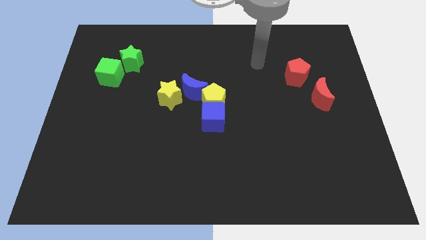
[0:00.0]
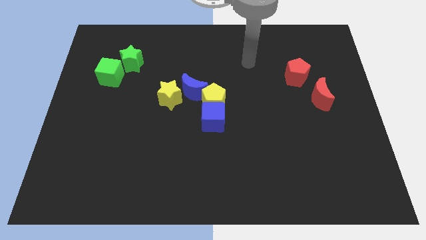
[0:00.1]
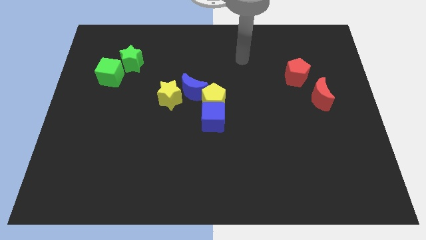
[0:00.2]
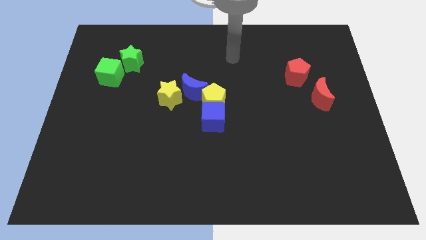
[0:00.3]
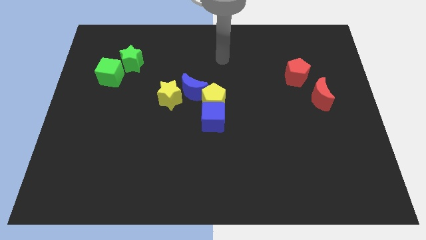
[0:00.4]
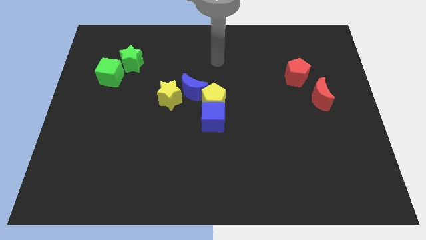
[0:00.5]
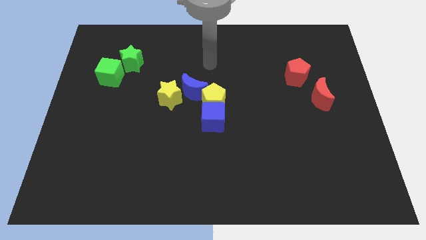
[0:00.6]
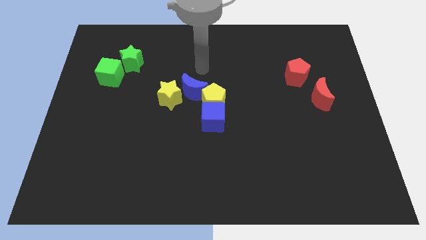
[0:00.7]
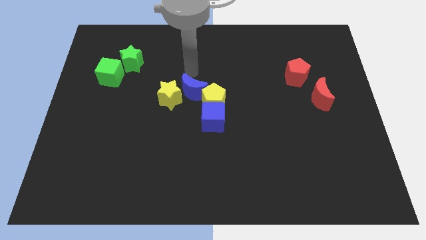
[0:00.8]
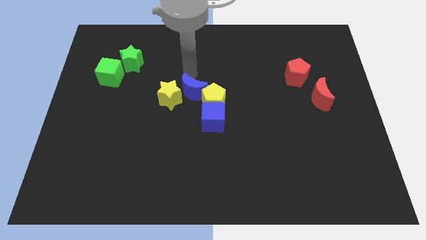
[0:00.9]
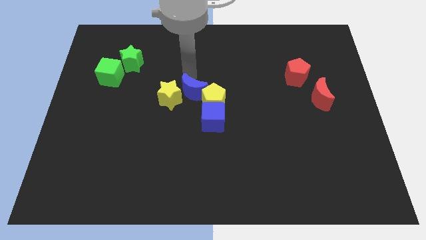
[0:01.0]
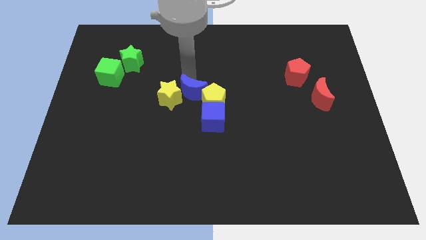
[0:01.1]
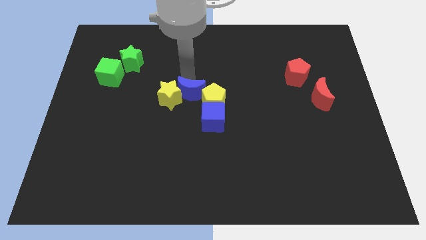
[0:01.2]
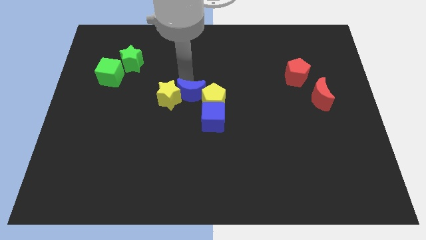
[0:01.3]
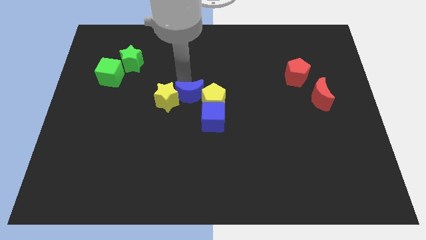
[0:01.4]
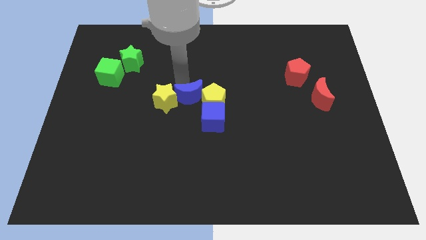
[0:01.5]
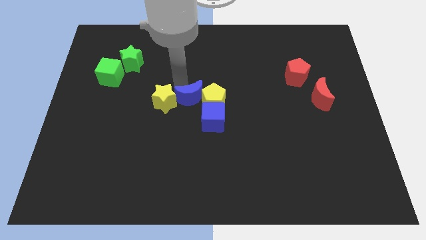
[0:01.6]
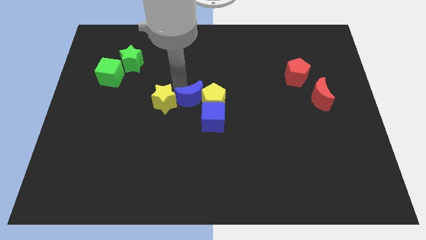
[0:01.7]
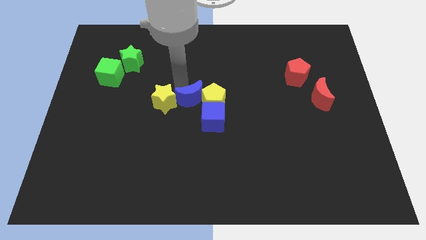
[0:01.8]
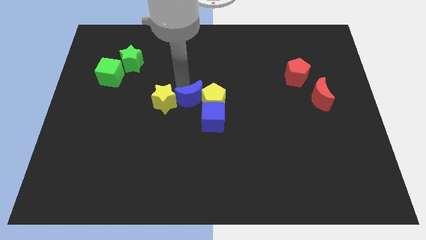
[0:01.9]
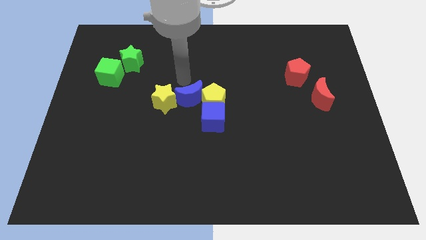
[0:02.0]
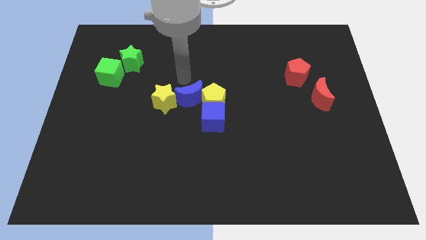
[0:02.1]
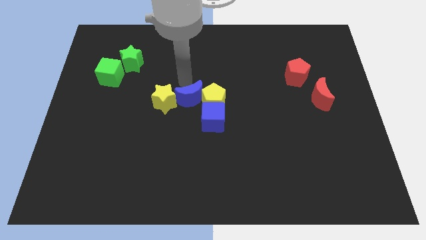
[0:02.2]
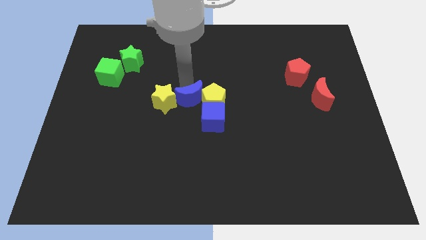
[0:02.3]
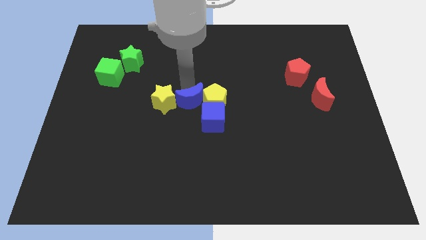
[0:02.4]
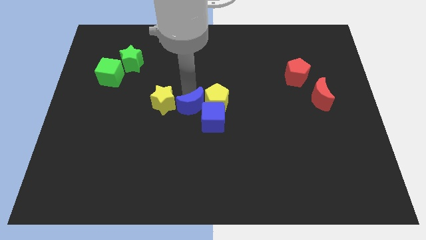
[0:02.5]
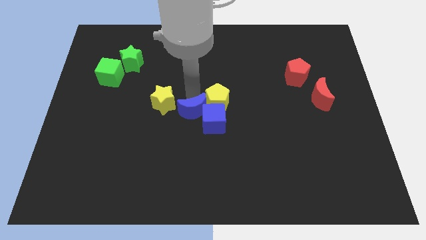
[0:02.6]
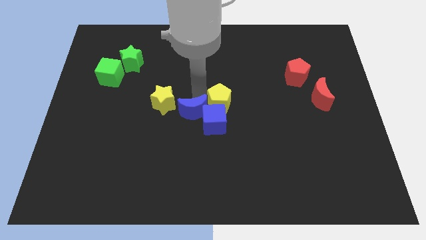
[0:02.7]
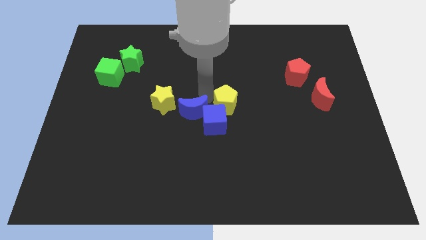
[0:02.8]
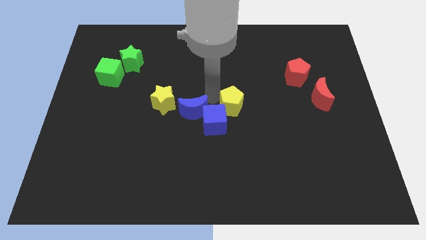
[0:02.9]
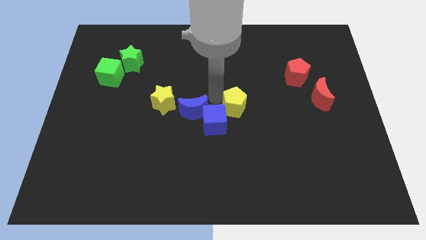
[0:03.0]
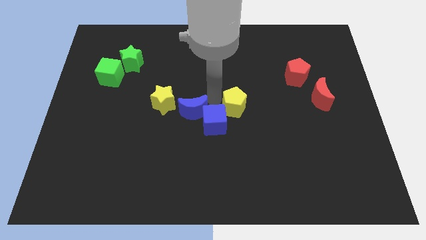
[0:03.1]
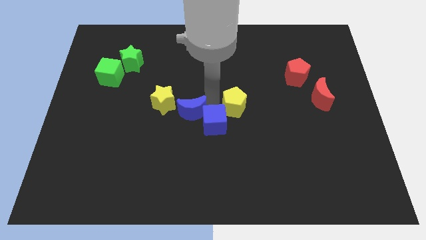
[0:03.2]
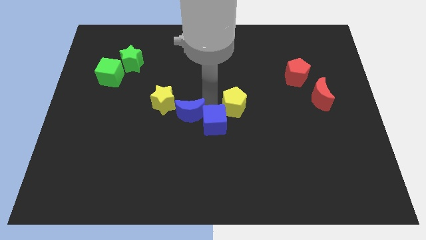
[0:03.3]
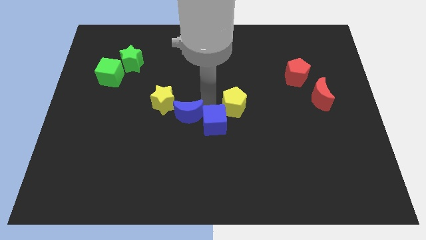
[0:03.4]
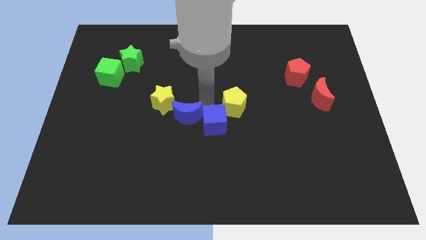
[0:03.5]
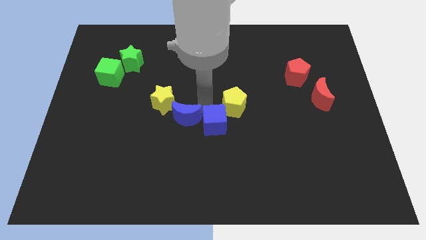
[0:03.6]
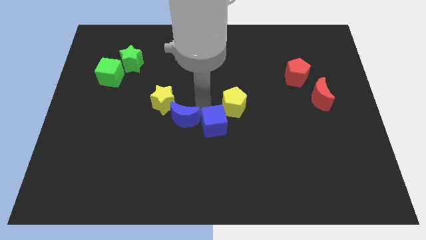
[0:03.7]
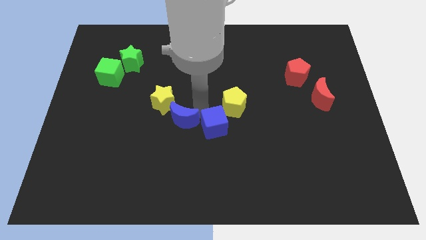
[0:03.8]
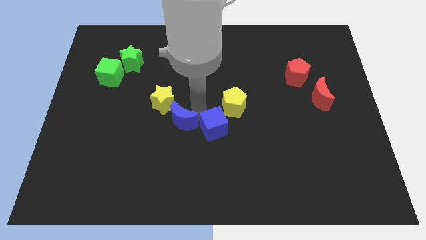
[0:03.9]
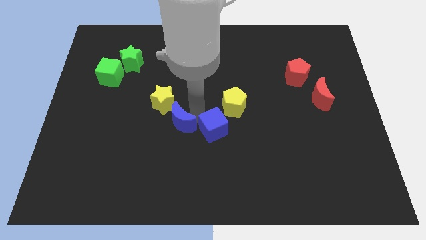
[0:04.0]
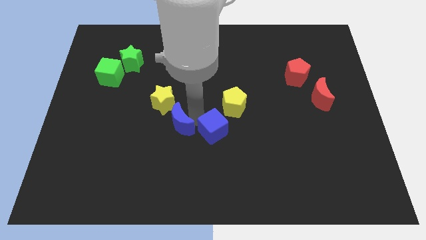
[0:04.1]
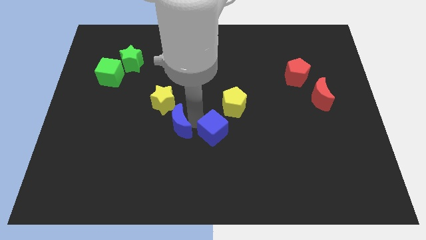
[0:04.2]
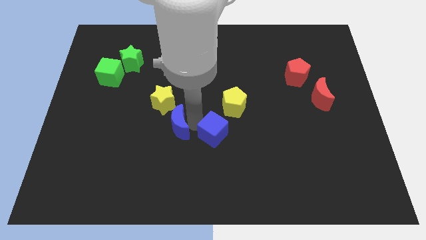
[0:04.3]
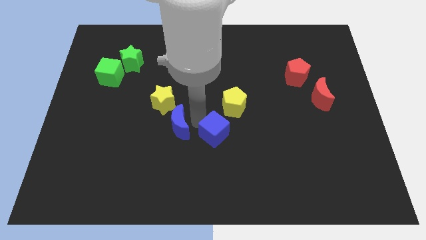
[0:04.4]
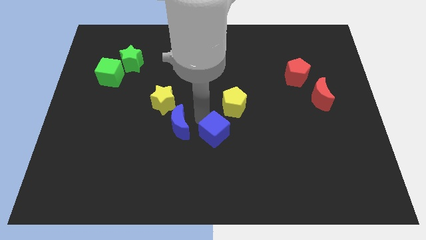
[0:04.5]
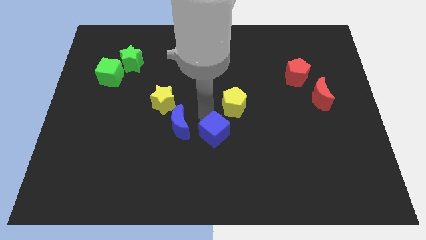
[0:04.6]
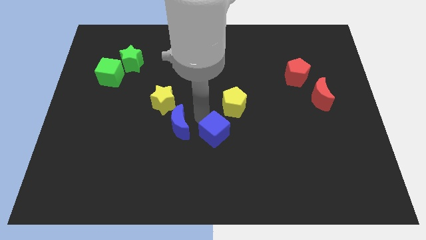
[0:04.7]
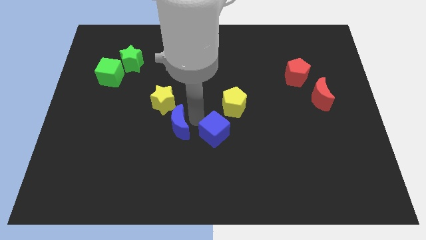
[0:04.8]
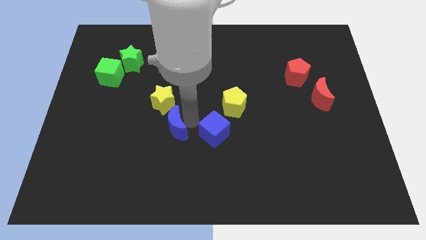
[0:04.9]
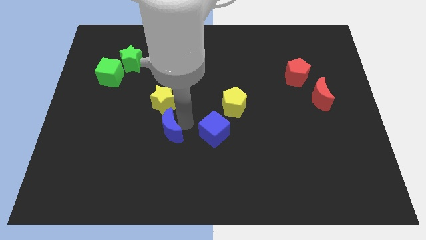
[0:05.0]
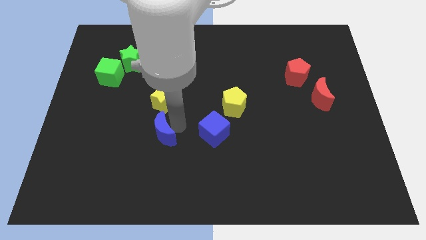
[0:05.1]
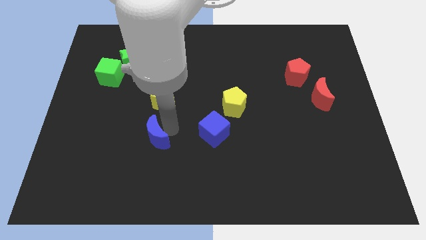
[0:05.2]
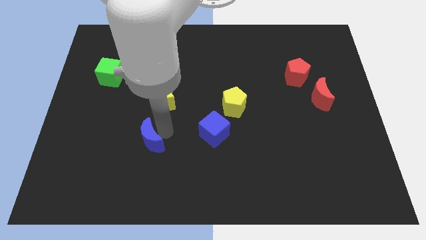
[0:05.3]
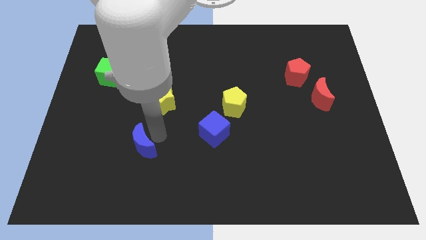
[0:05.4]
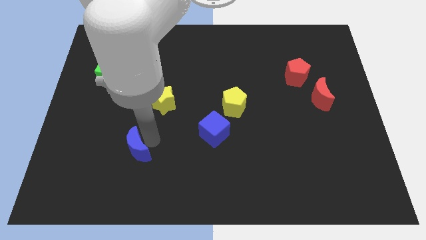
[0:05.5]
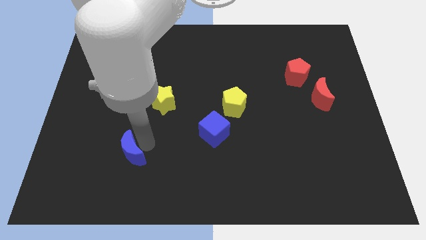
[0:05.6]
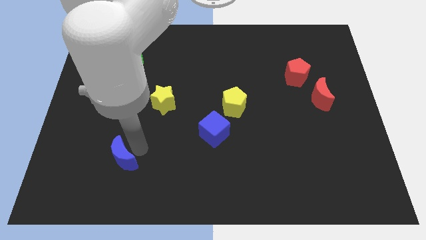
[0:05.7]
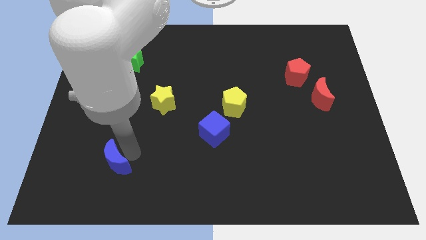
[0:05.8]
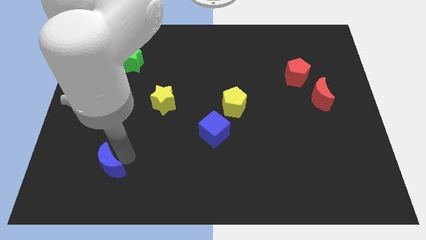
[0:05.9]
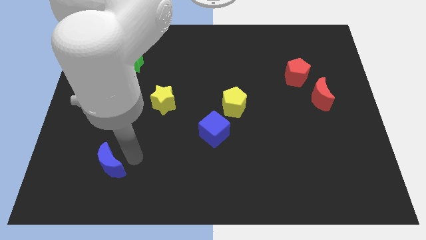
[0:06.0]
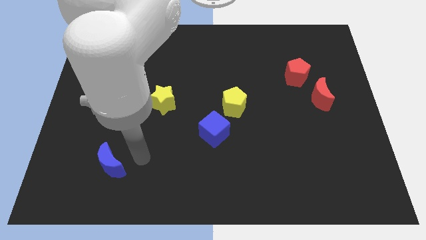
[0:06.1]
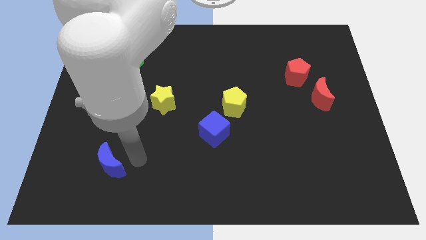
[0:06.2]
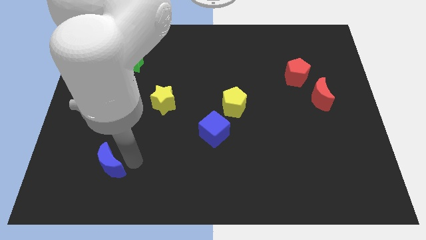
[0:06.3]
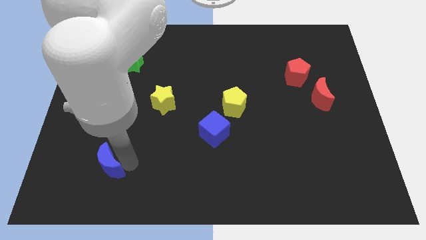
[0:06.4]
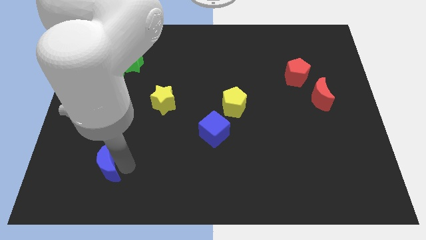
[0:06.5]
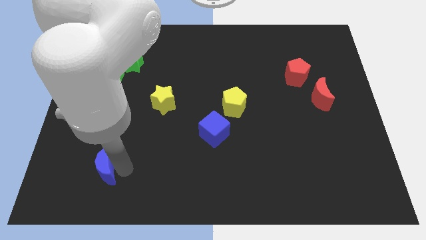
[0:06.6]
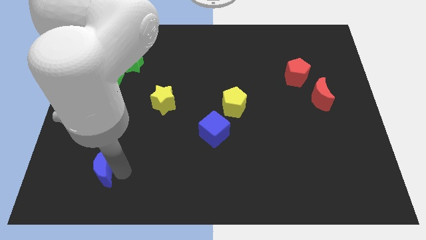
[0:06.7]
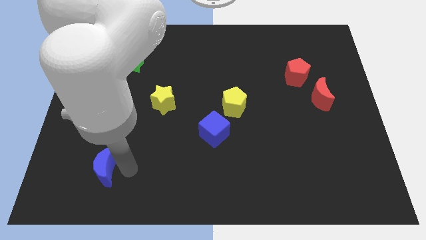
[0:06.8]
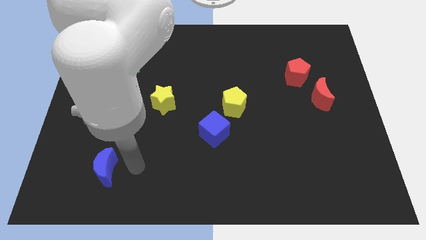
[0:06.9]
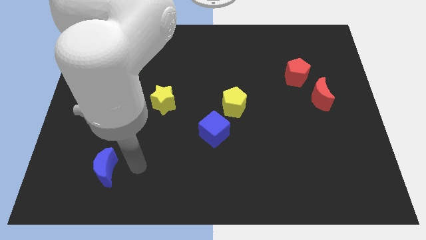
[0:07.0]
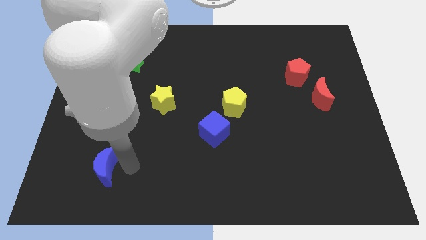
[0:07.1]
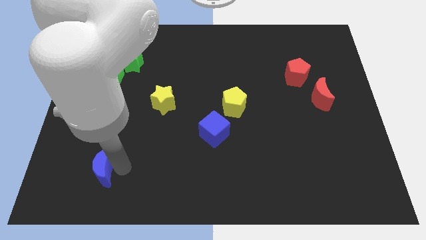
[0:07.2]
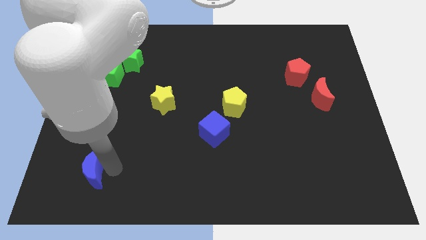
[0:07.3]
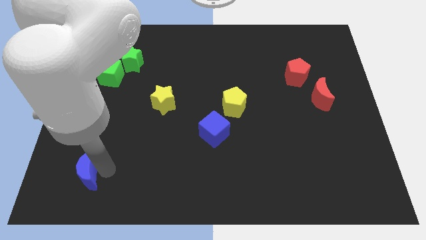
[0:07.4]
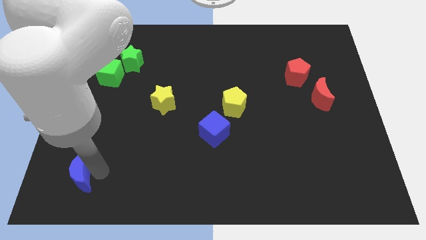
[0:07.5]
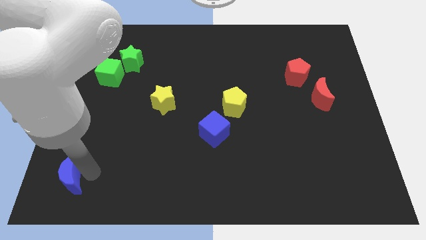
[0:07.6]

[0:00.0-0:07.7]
put the blue moon to the lower left corner
